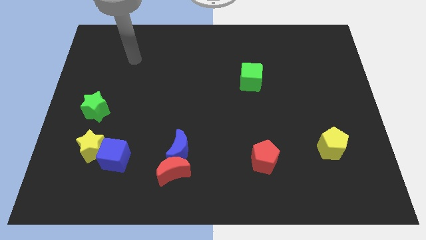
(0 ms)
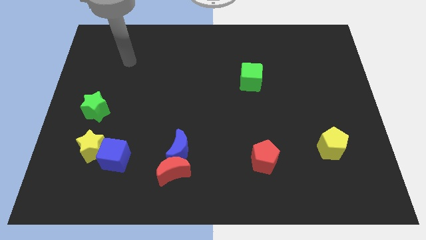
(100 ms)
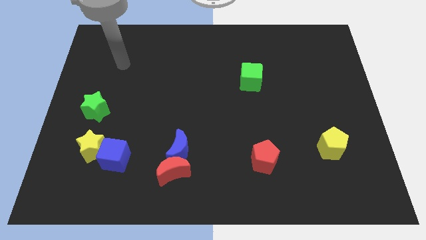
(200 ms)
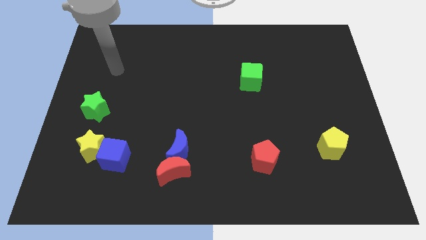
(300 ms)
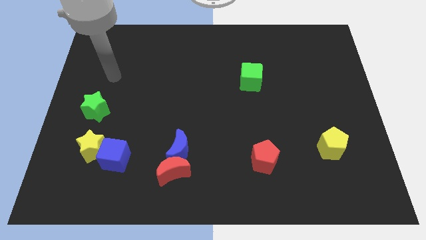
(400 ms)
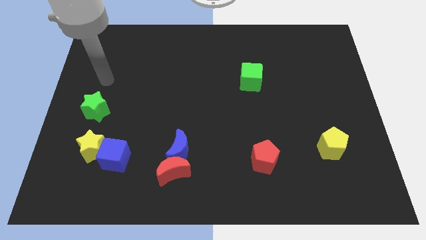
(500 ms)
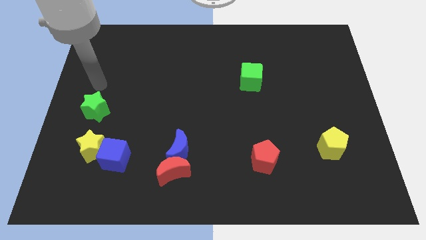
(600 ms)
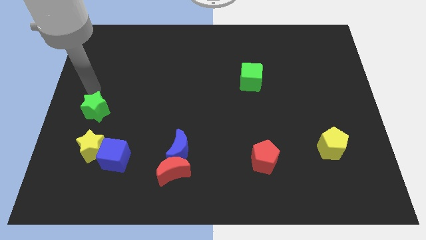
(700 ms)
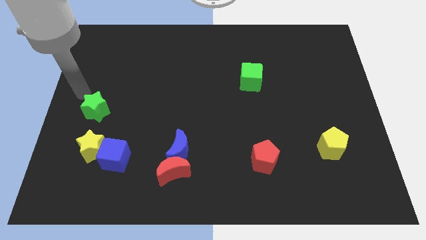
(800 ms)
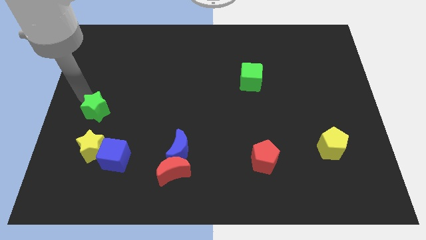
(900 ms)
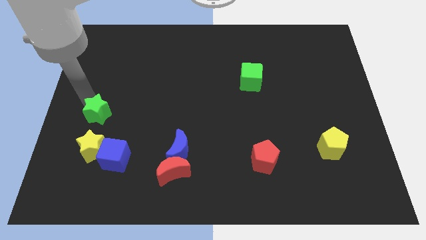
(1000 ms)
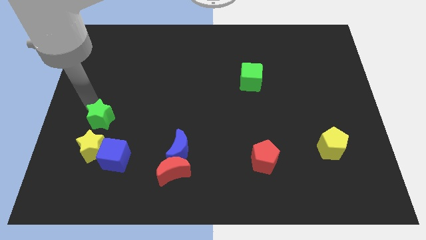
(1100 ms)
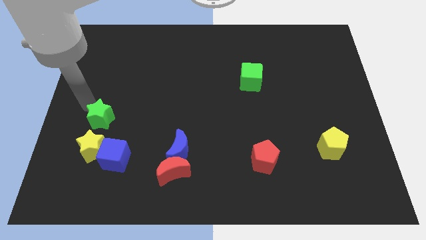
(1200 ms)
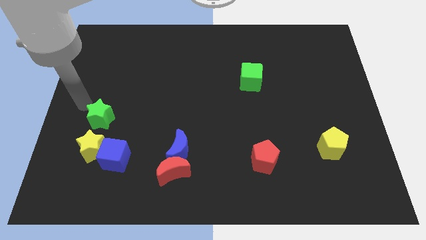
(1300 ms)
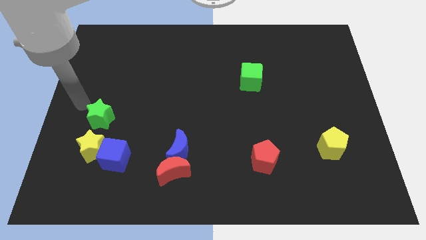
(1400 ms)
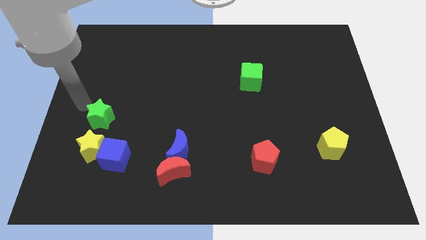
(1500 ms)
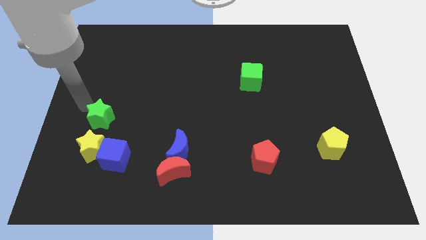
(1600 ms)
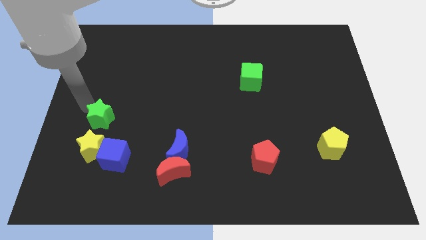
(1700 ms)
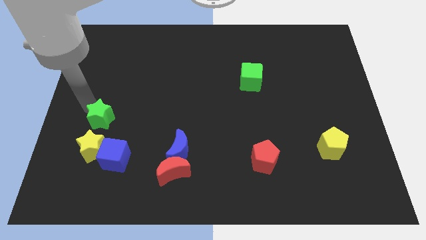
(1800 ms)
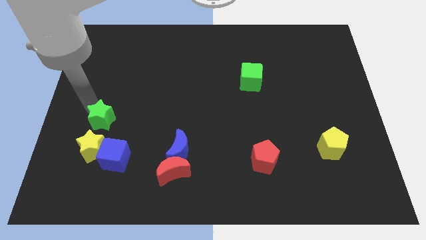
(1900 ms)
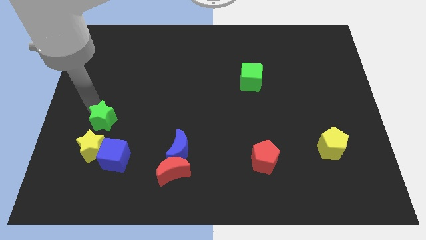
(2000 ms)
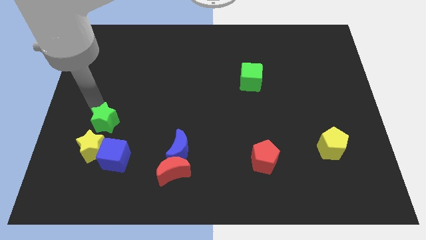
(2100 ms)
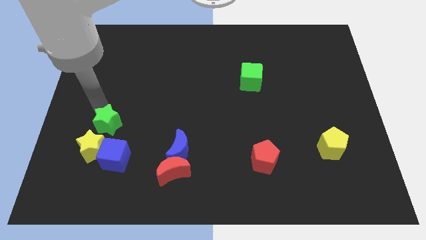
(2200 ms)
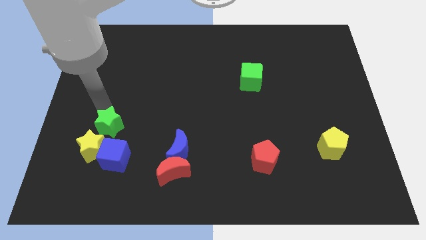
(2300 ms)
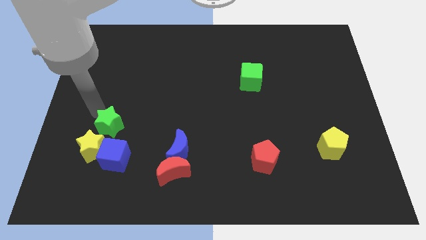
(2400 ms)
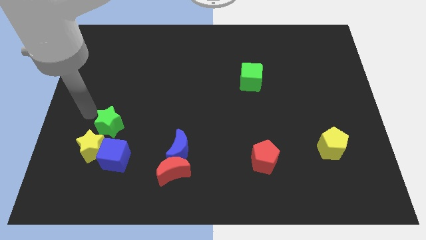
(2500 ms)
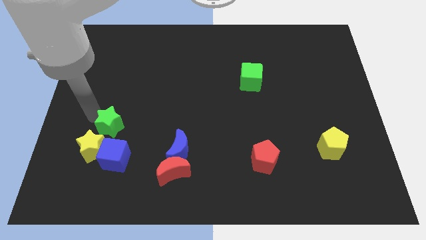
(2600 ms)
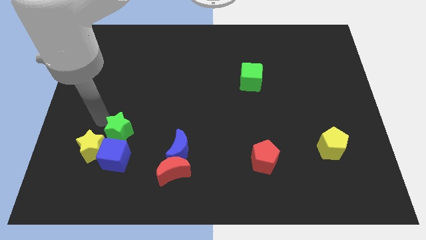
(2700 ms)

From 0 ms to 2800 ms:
move the green star diagonally downwards and to the right a bit

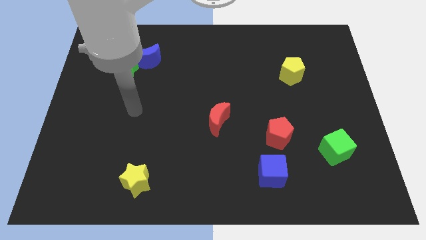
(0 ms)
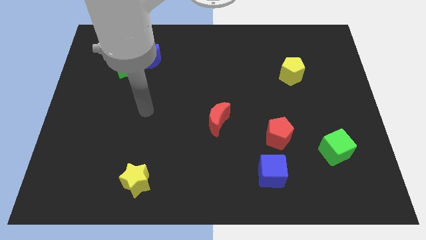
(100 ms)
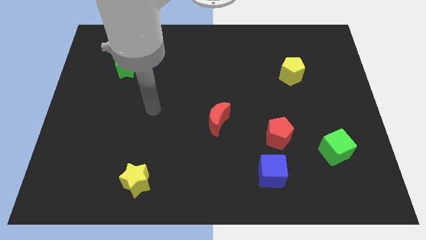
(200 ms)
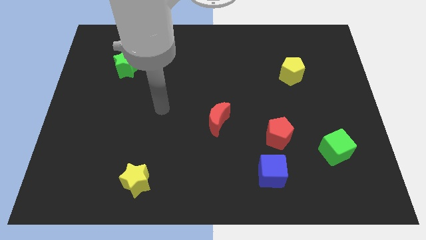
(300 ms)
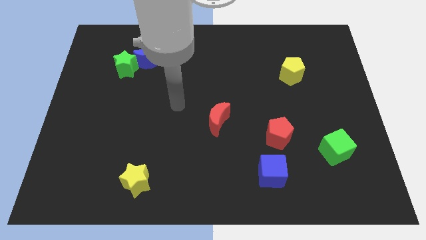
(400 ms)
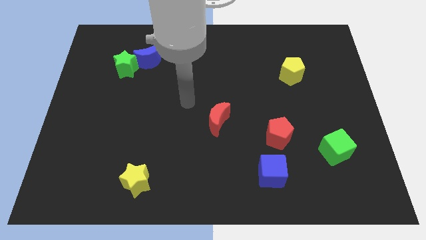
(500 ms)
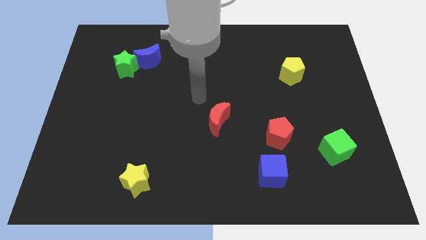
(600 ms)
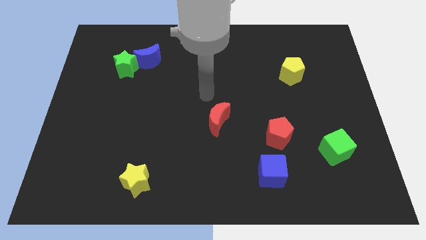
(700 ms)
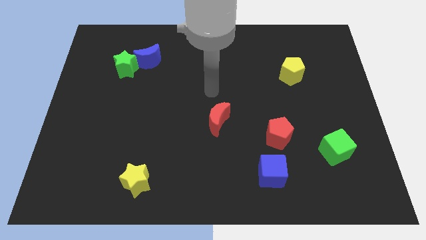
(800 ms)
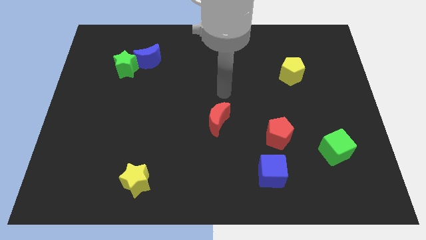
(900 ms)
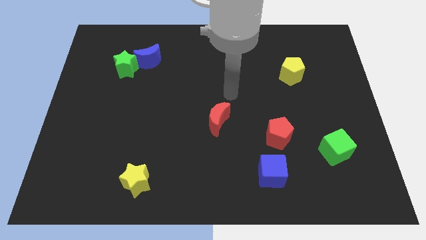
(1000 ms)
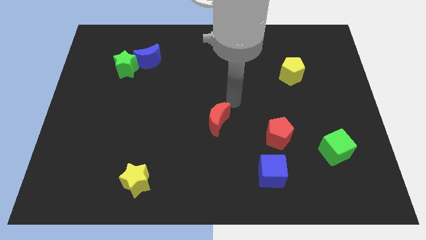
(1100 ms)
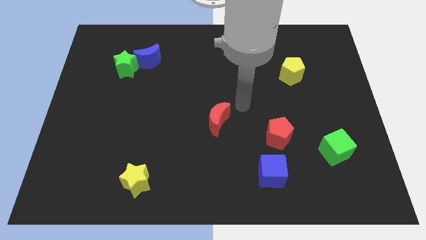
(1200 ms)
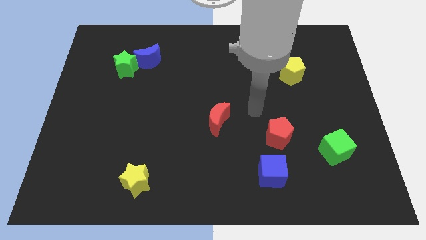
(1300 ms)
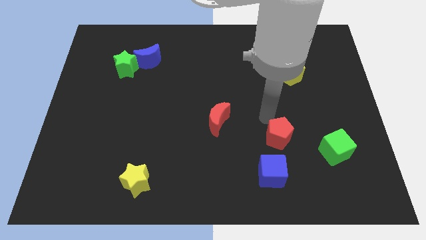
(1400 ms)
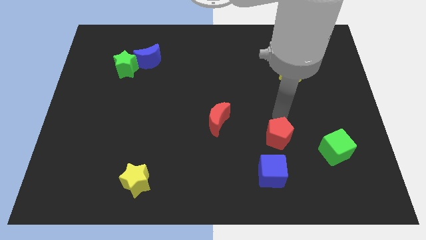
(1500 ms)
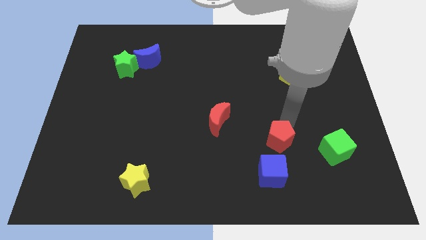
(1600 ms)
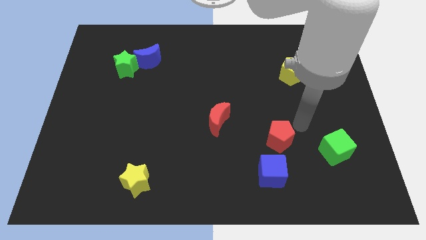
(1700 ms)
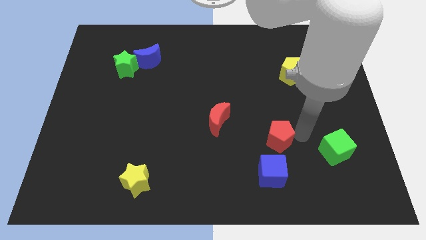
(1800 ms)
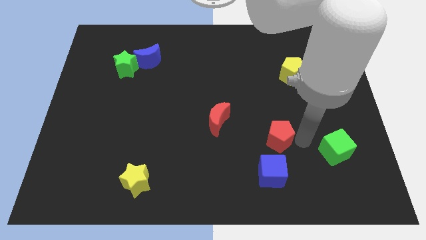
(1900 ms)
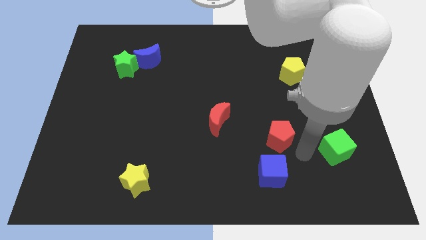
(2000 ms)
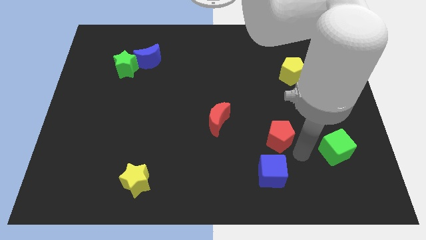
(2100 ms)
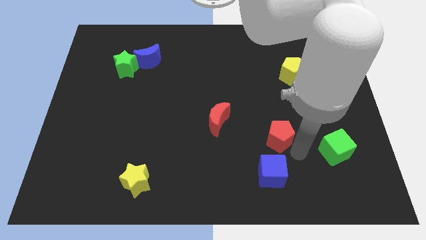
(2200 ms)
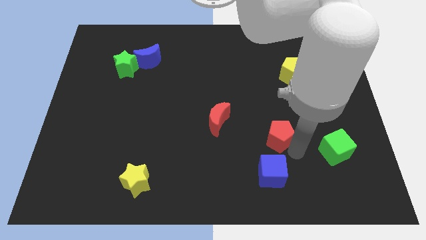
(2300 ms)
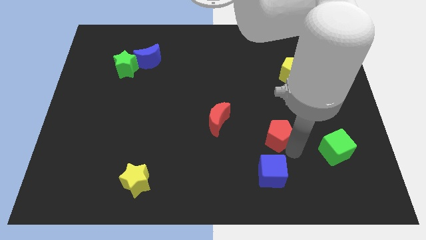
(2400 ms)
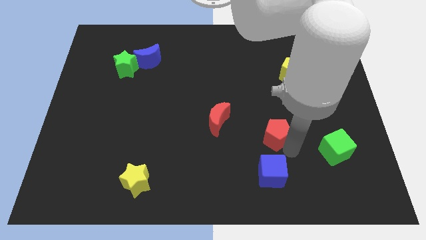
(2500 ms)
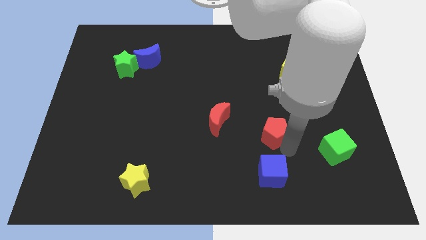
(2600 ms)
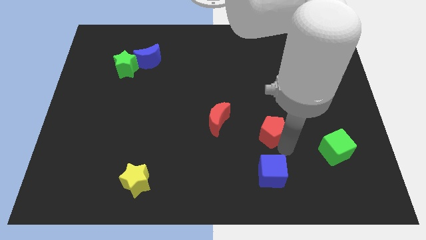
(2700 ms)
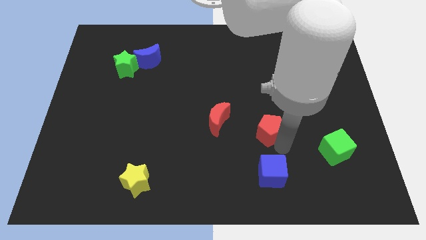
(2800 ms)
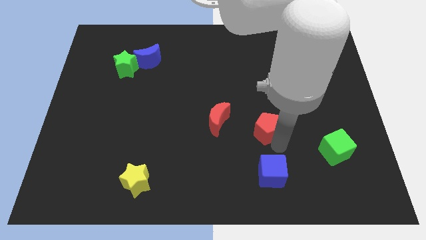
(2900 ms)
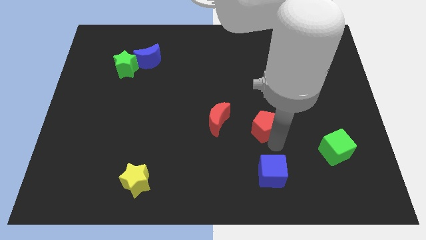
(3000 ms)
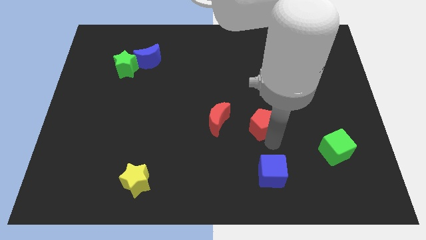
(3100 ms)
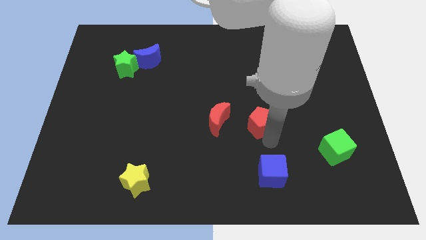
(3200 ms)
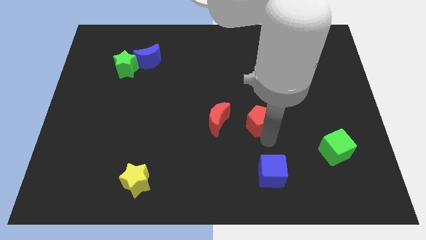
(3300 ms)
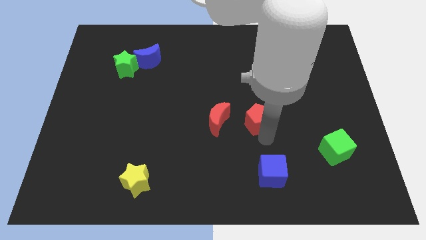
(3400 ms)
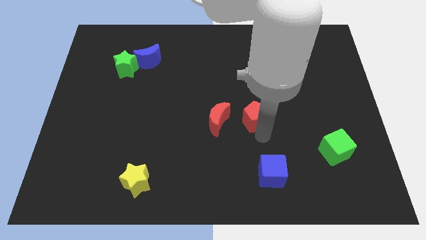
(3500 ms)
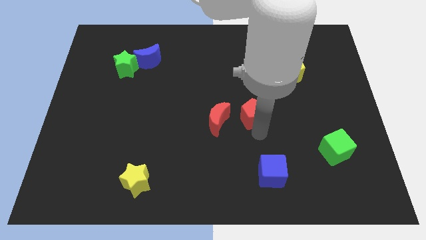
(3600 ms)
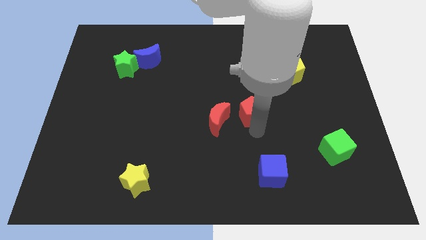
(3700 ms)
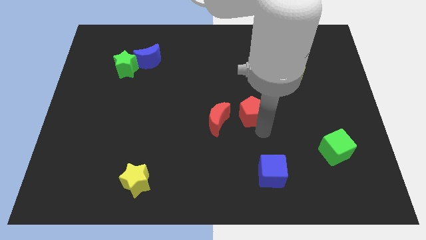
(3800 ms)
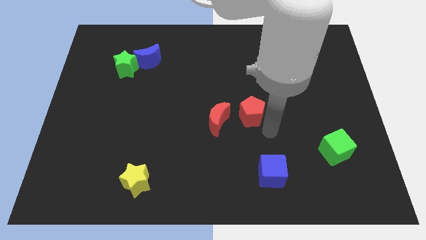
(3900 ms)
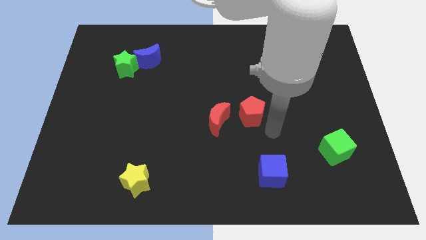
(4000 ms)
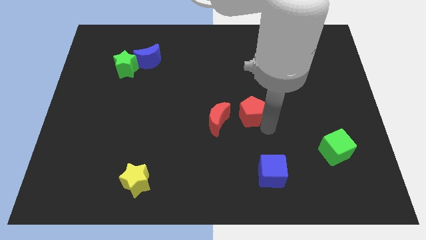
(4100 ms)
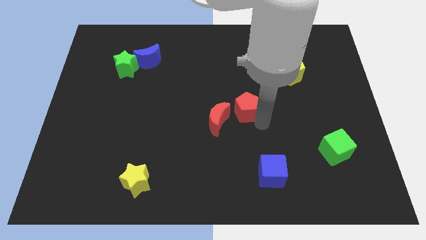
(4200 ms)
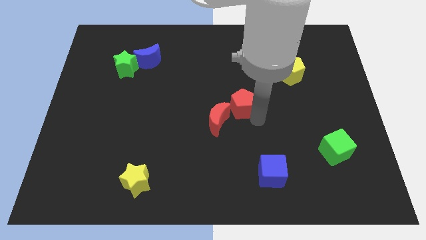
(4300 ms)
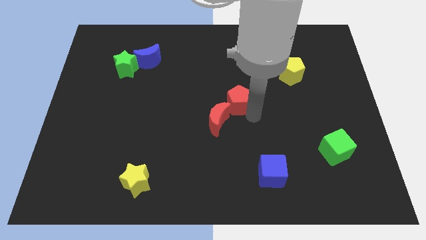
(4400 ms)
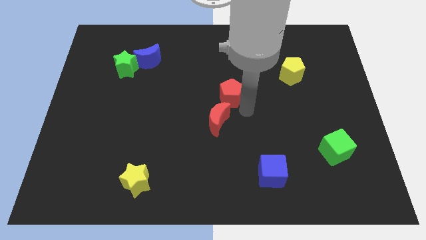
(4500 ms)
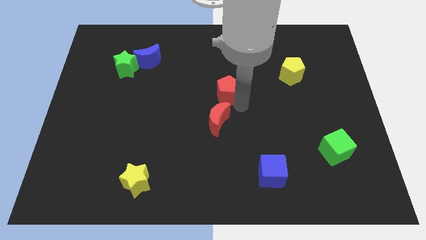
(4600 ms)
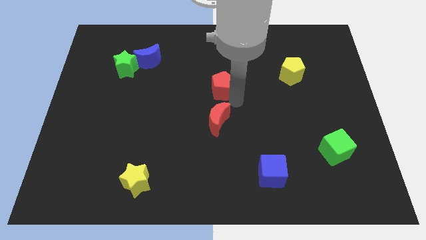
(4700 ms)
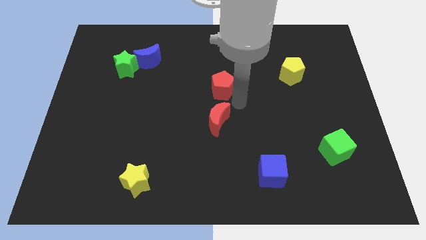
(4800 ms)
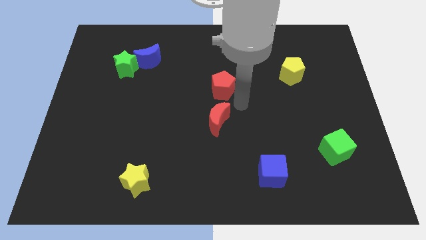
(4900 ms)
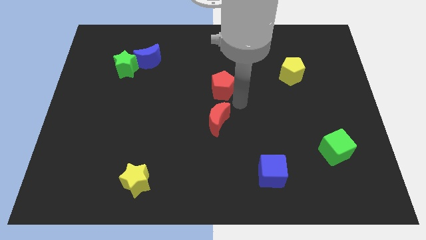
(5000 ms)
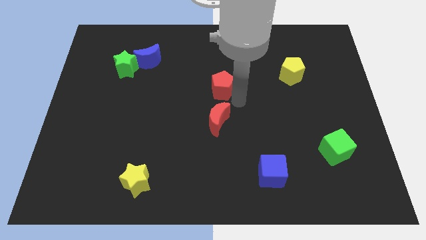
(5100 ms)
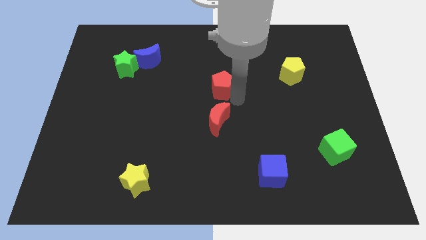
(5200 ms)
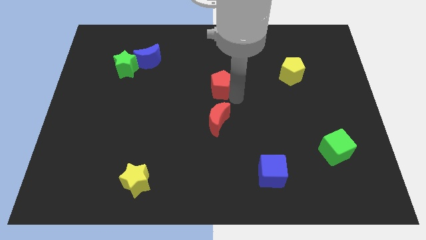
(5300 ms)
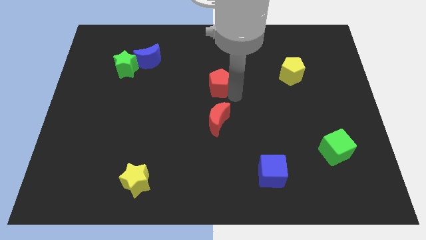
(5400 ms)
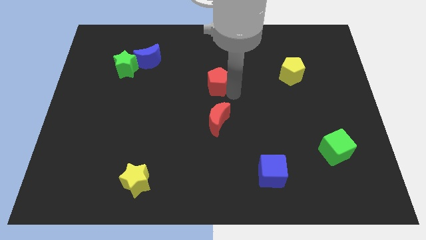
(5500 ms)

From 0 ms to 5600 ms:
move the red pentagon diagonally up and to the left

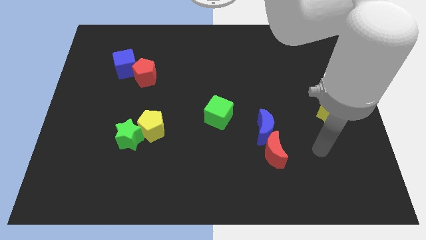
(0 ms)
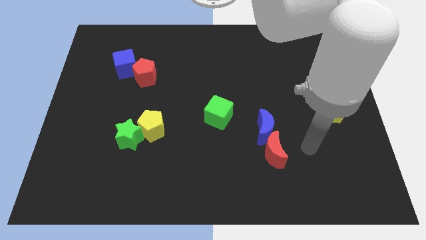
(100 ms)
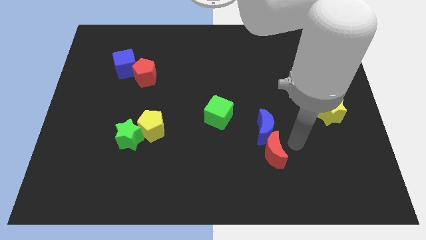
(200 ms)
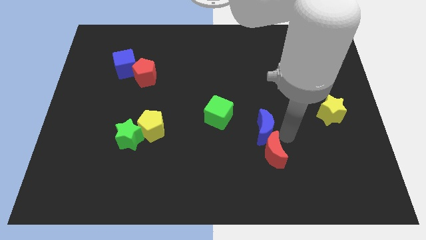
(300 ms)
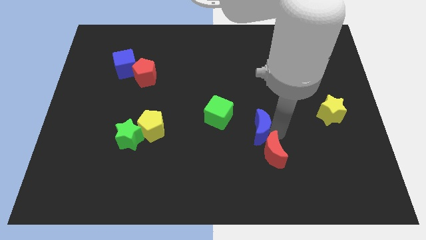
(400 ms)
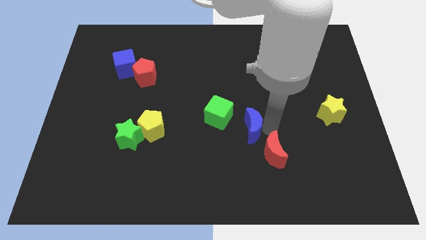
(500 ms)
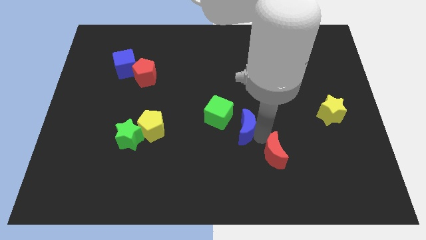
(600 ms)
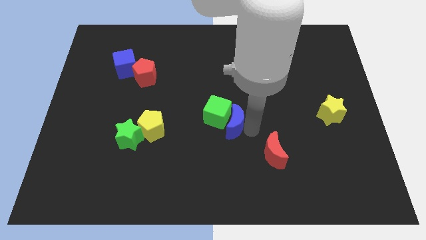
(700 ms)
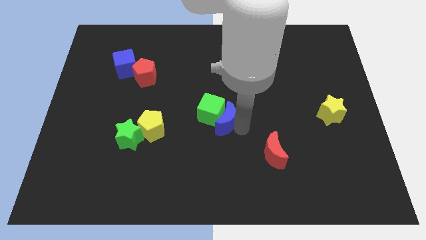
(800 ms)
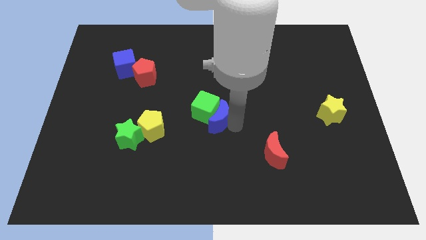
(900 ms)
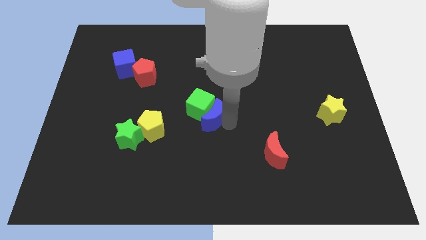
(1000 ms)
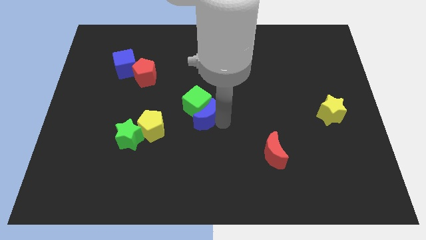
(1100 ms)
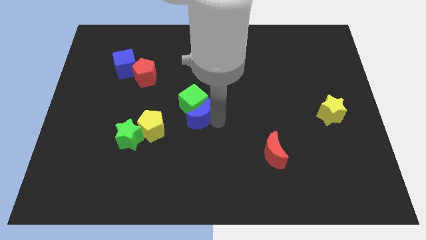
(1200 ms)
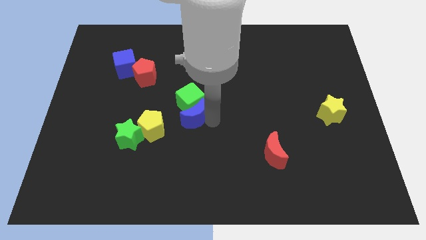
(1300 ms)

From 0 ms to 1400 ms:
slide the green cube a little bit up and to the left
